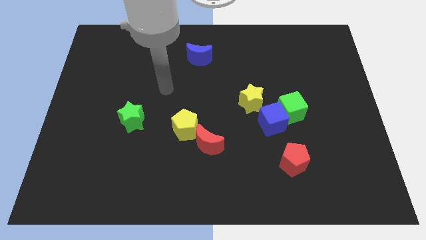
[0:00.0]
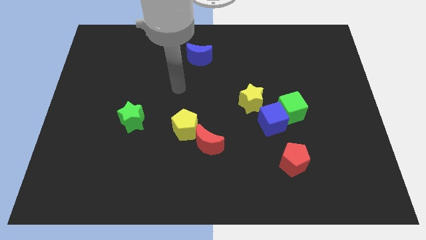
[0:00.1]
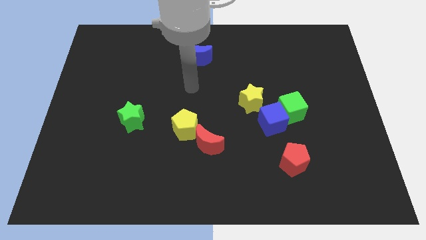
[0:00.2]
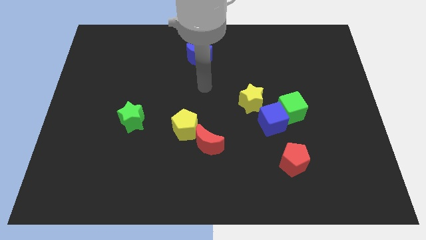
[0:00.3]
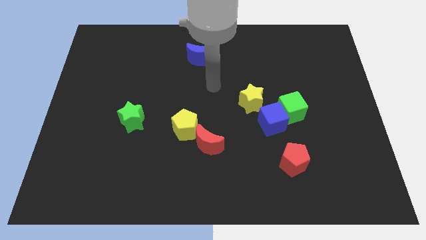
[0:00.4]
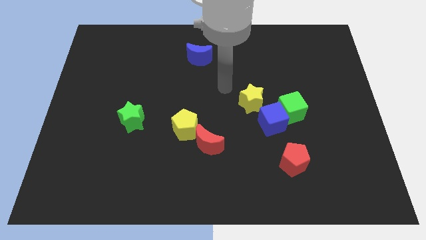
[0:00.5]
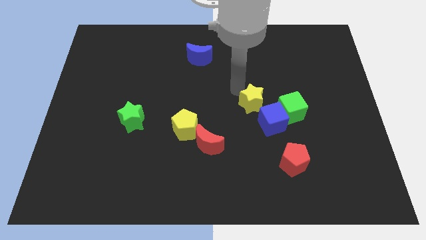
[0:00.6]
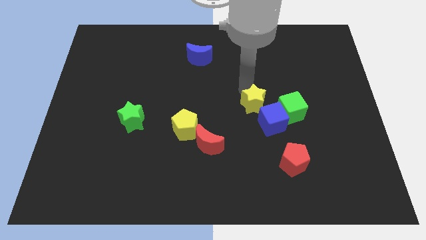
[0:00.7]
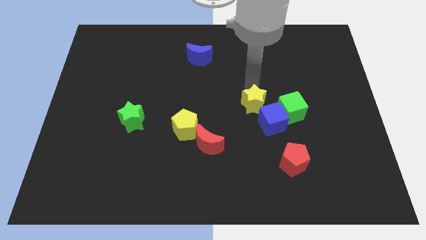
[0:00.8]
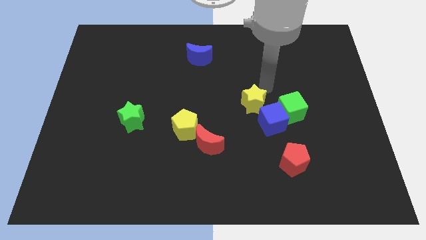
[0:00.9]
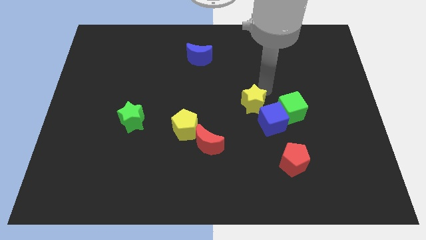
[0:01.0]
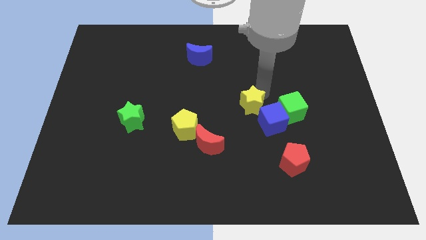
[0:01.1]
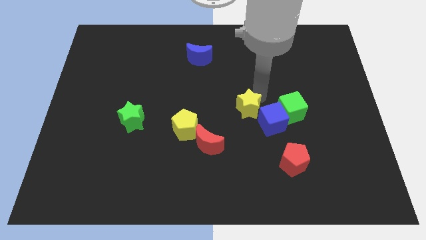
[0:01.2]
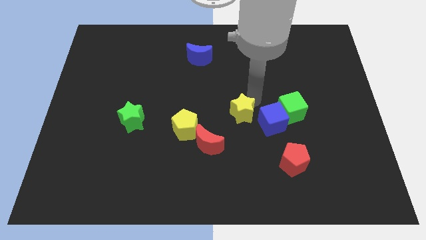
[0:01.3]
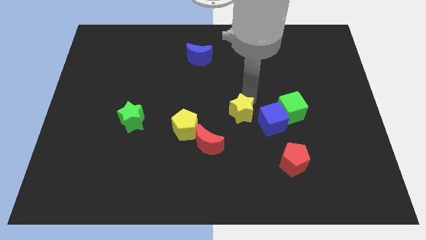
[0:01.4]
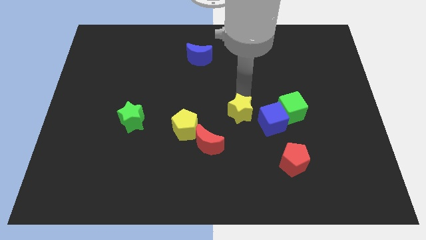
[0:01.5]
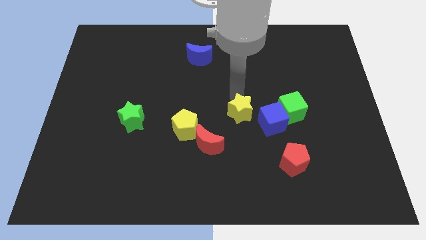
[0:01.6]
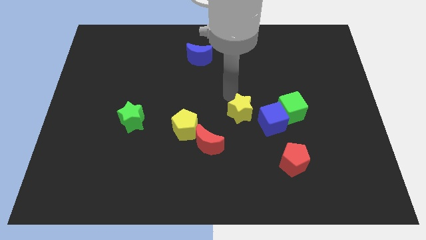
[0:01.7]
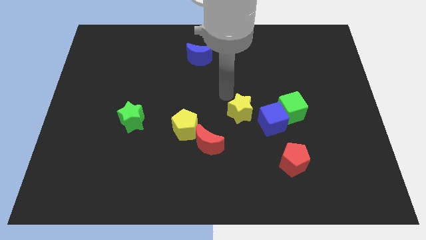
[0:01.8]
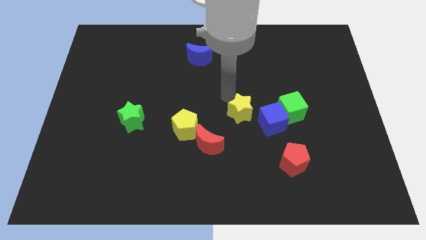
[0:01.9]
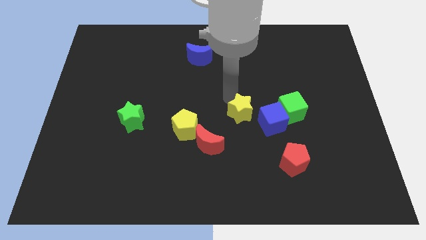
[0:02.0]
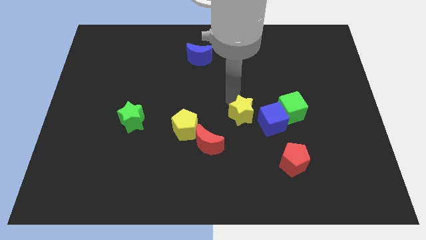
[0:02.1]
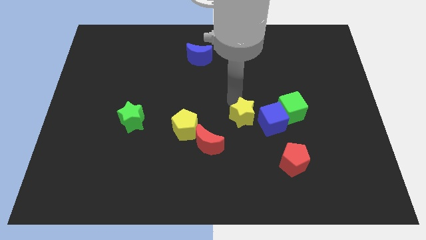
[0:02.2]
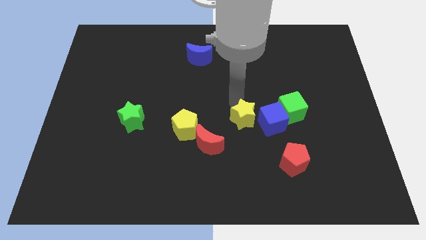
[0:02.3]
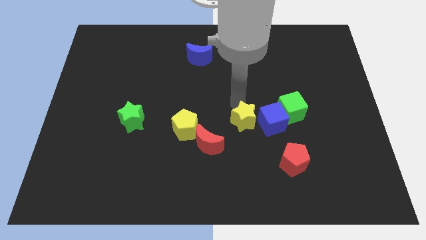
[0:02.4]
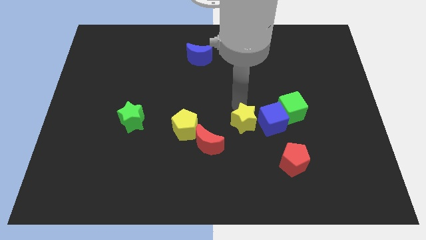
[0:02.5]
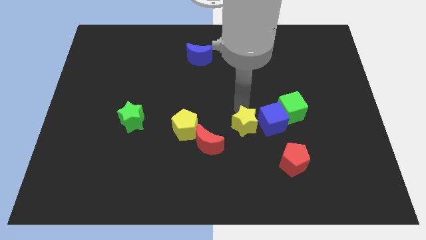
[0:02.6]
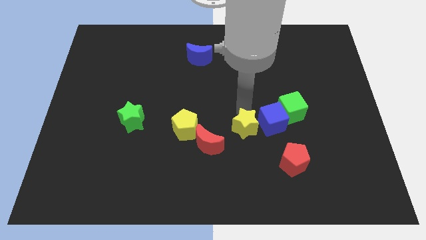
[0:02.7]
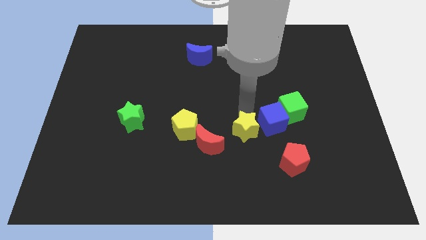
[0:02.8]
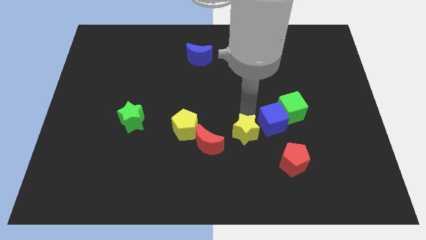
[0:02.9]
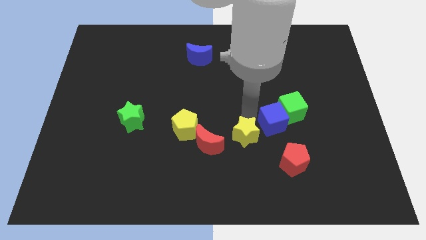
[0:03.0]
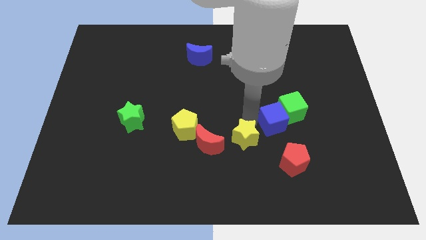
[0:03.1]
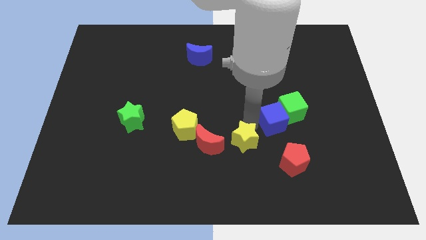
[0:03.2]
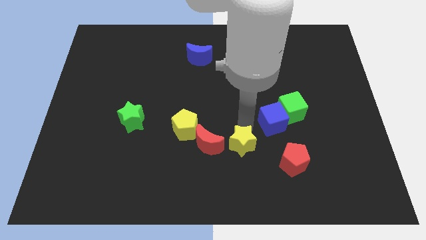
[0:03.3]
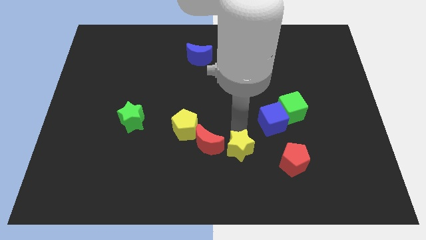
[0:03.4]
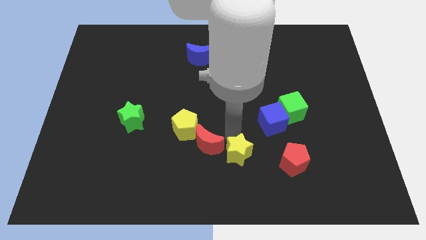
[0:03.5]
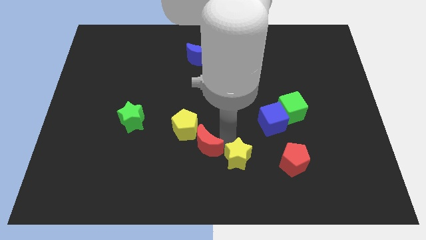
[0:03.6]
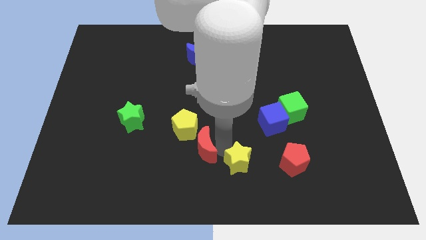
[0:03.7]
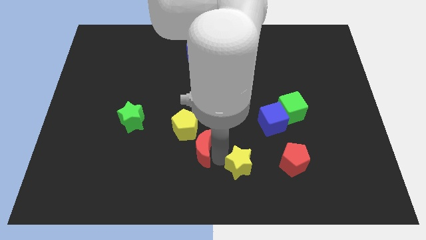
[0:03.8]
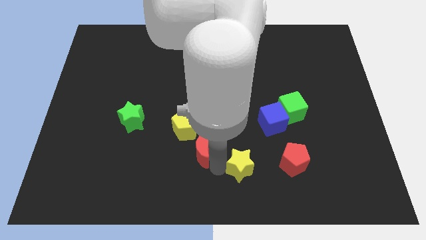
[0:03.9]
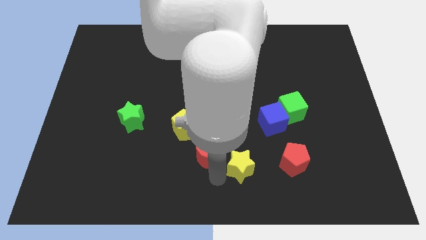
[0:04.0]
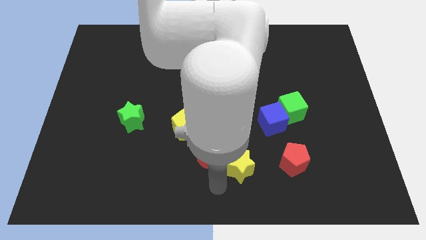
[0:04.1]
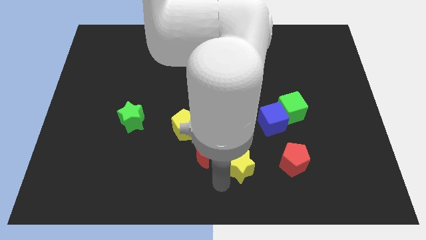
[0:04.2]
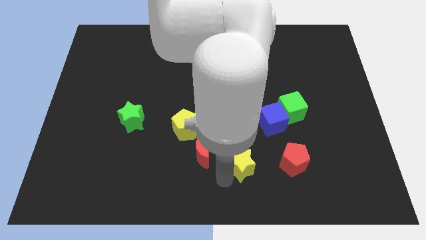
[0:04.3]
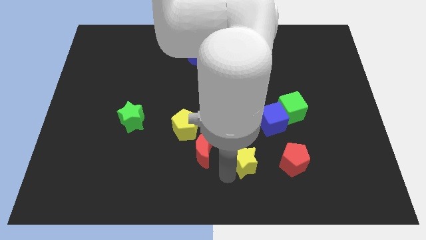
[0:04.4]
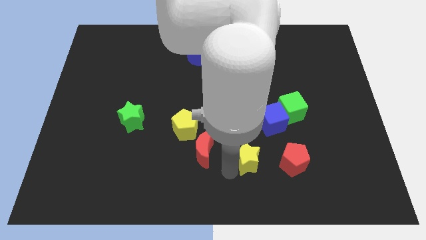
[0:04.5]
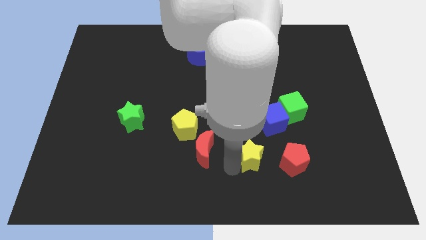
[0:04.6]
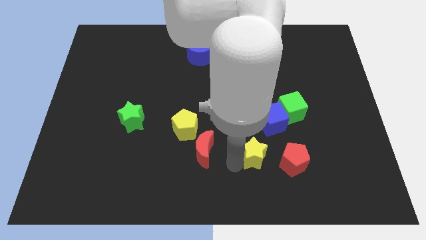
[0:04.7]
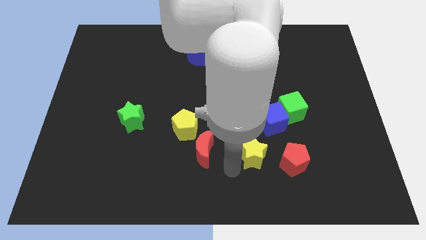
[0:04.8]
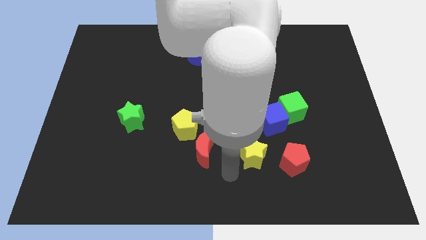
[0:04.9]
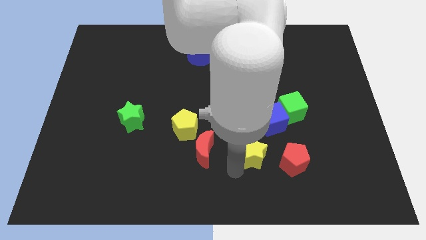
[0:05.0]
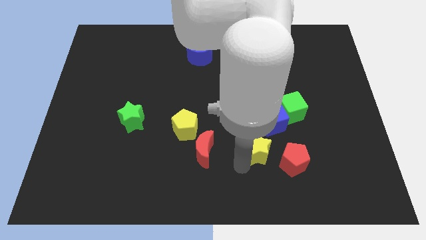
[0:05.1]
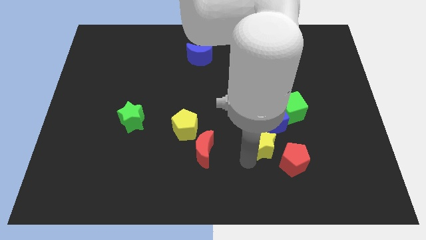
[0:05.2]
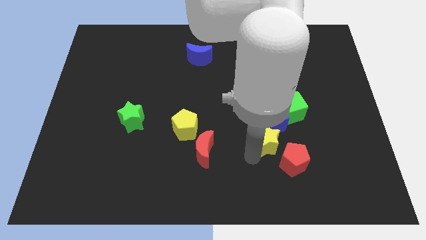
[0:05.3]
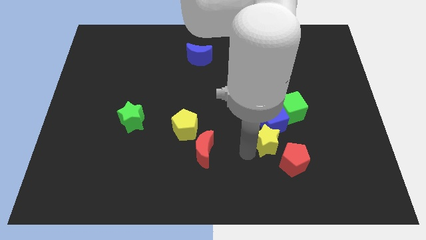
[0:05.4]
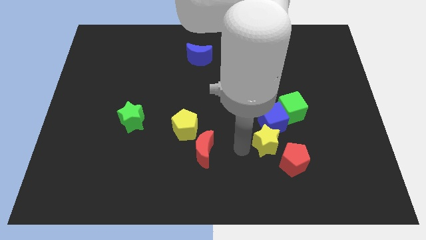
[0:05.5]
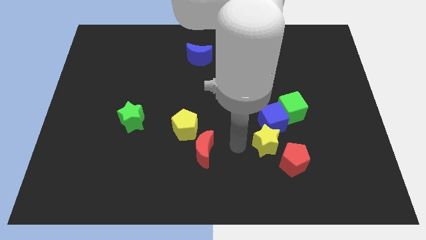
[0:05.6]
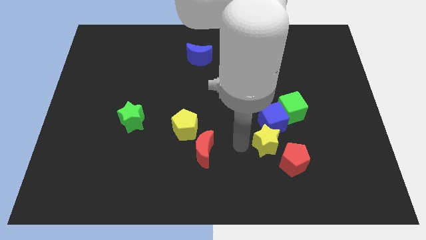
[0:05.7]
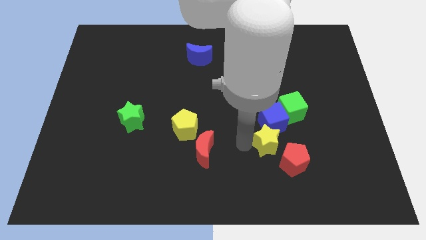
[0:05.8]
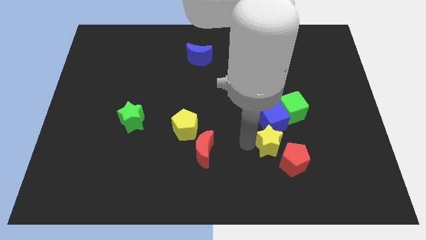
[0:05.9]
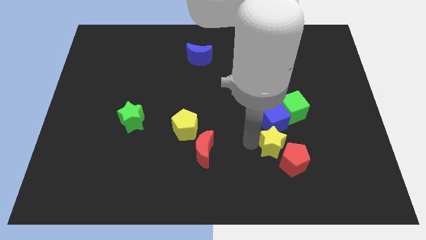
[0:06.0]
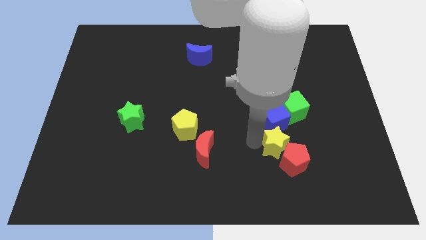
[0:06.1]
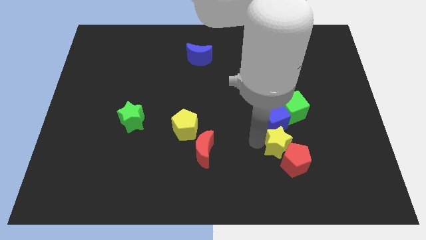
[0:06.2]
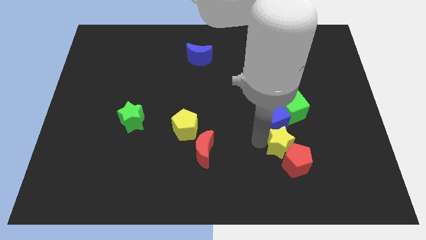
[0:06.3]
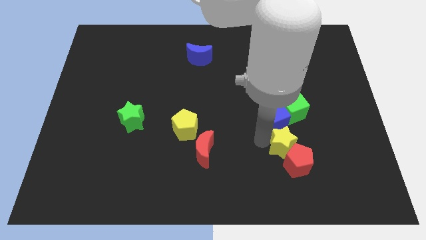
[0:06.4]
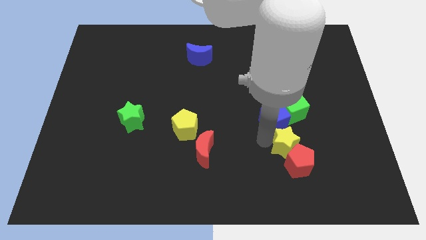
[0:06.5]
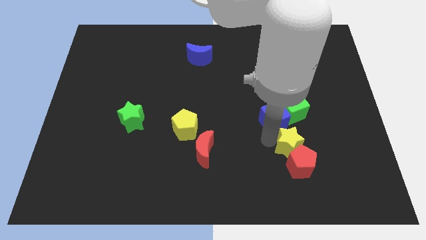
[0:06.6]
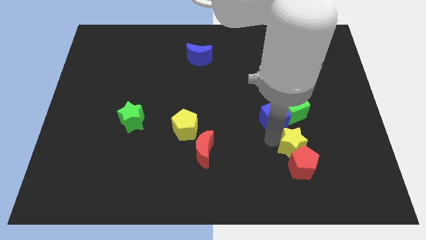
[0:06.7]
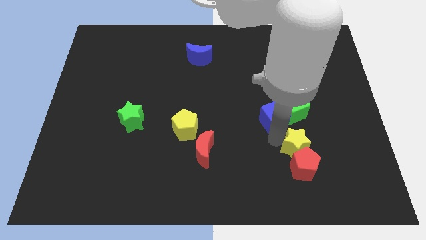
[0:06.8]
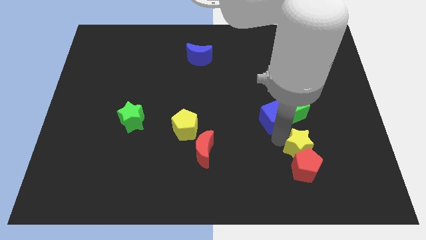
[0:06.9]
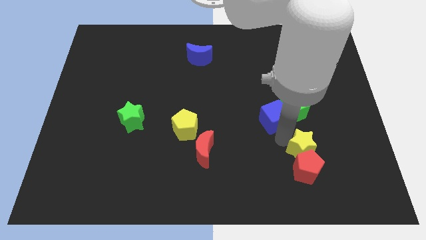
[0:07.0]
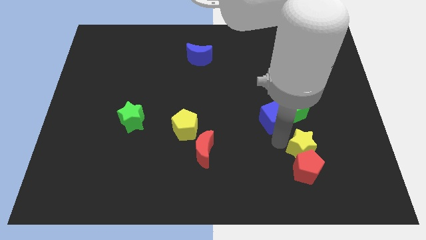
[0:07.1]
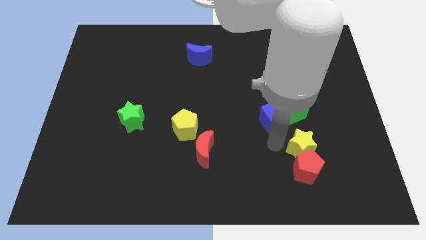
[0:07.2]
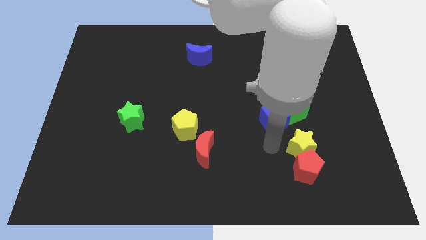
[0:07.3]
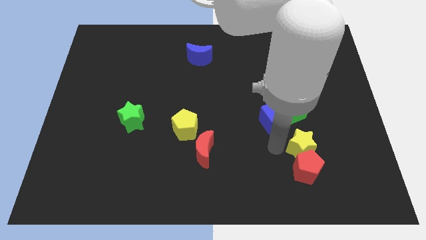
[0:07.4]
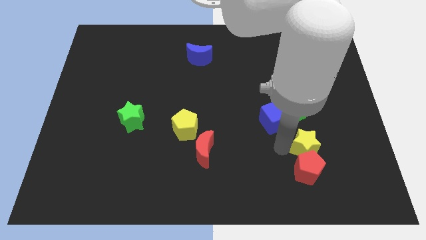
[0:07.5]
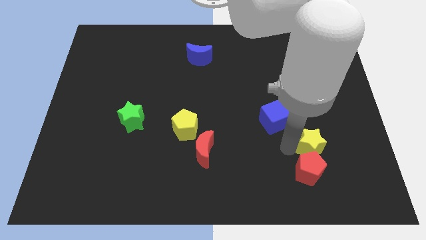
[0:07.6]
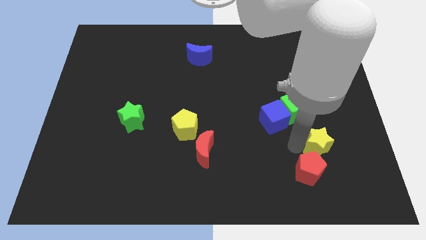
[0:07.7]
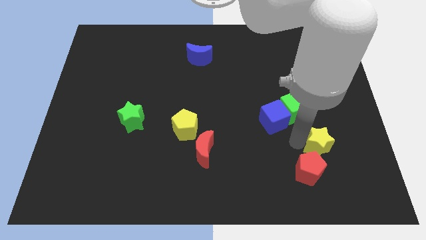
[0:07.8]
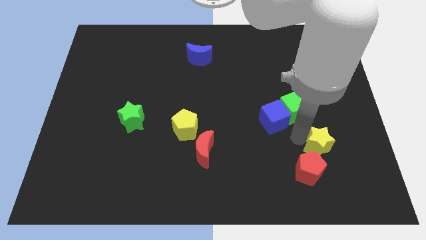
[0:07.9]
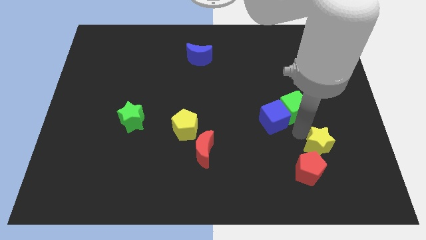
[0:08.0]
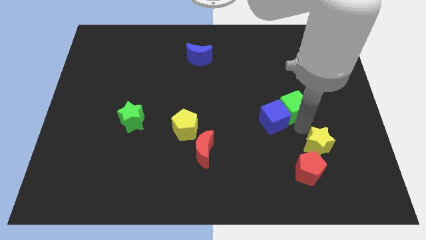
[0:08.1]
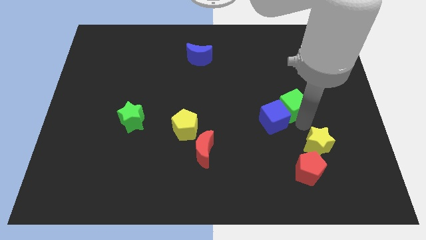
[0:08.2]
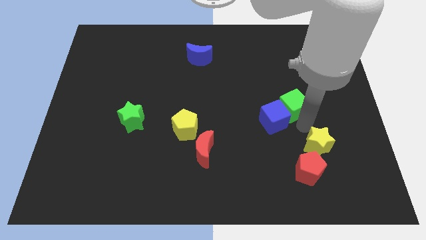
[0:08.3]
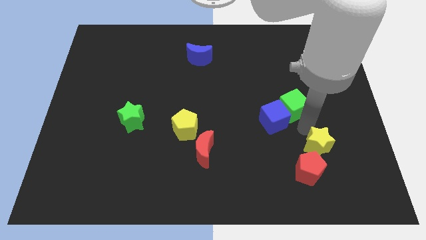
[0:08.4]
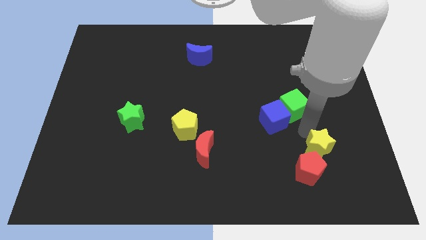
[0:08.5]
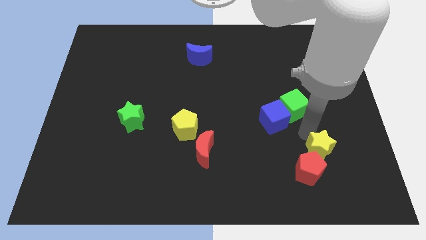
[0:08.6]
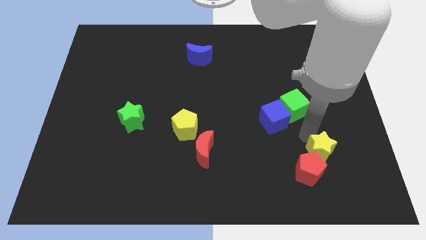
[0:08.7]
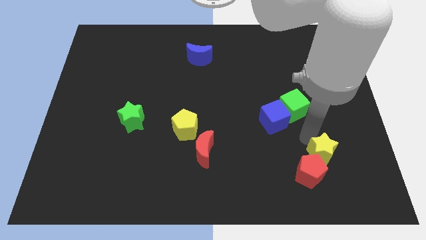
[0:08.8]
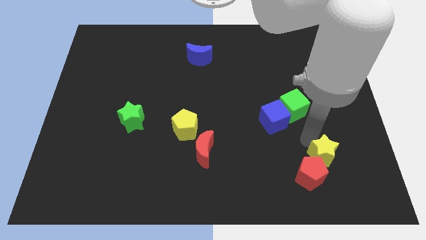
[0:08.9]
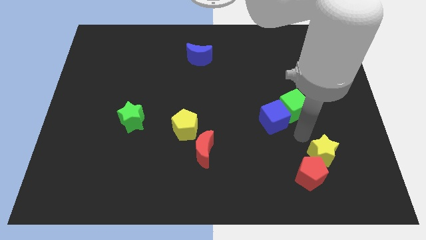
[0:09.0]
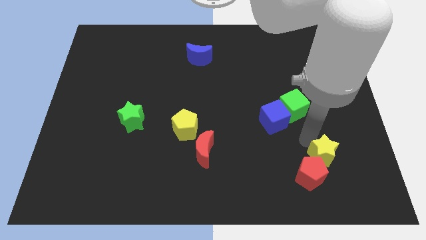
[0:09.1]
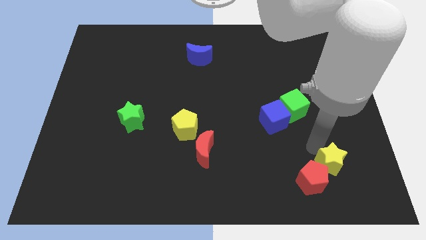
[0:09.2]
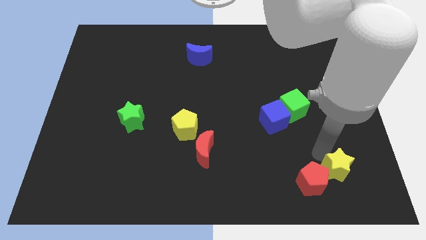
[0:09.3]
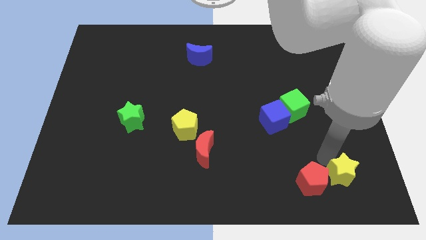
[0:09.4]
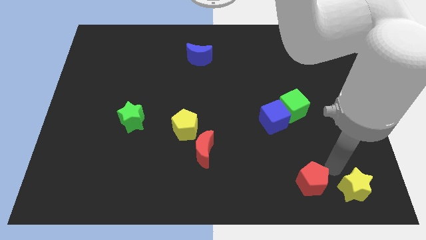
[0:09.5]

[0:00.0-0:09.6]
put the yellow star to the bottom right of the board
